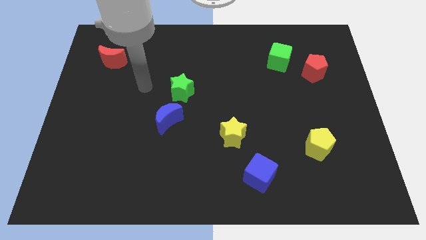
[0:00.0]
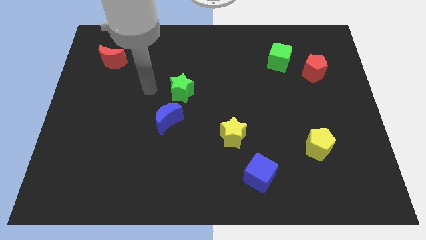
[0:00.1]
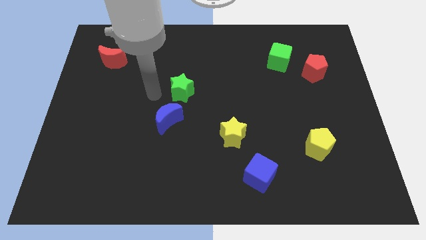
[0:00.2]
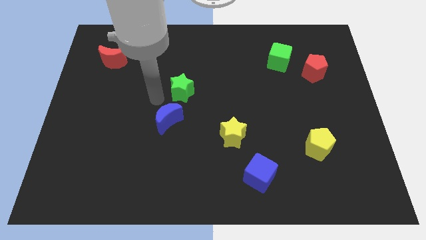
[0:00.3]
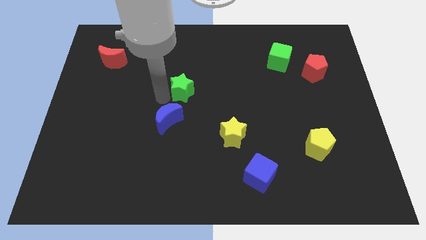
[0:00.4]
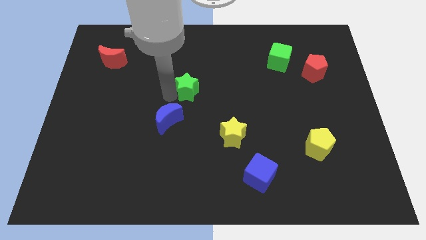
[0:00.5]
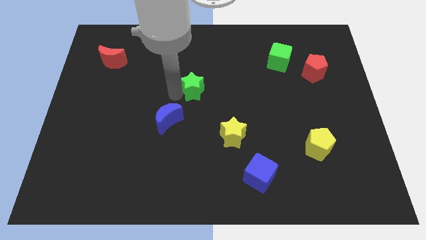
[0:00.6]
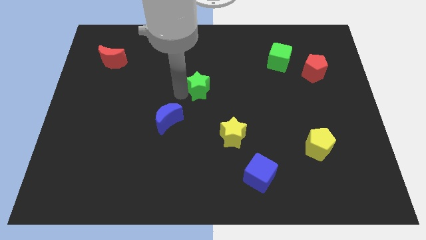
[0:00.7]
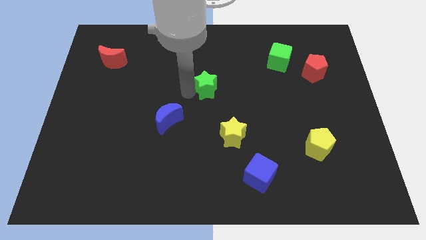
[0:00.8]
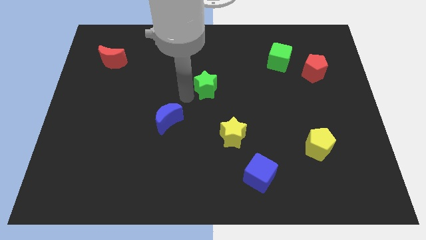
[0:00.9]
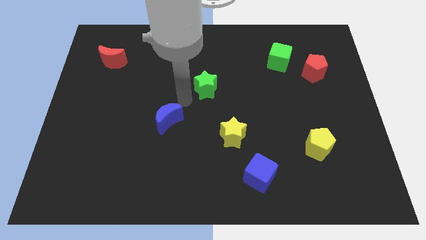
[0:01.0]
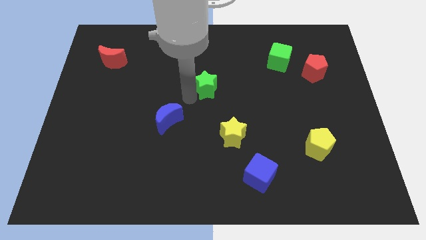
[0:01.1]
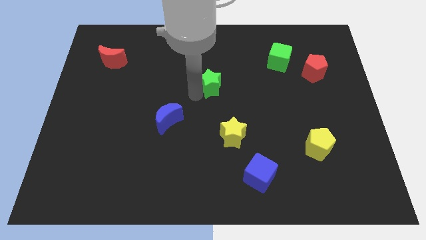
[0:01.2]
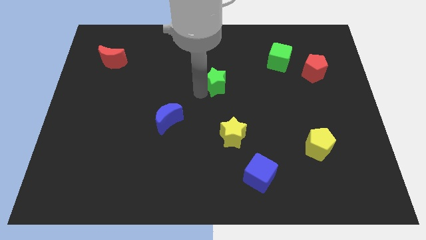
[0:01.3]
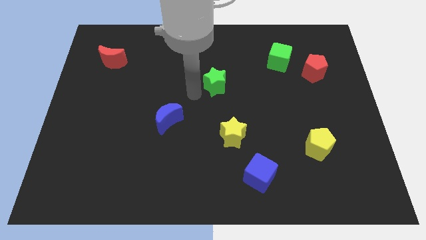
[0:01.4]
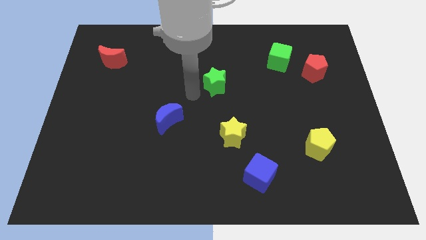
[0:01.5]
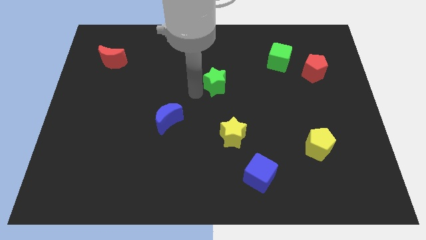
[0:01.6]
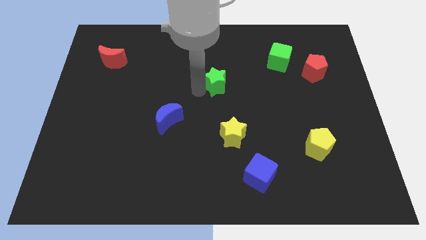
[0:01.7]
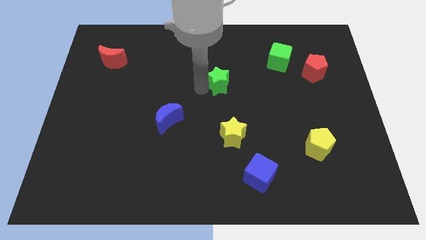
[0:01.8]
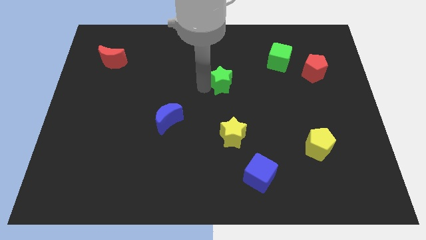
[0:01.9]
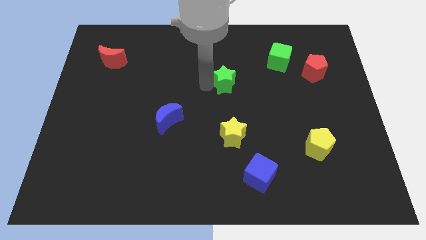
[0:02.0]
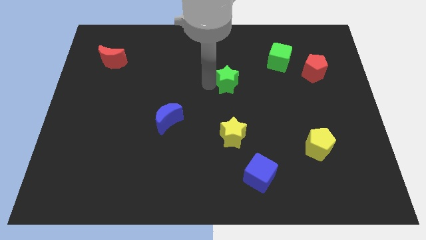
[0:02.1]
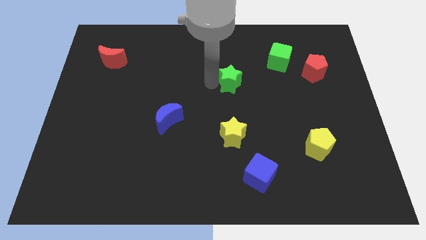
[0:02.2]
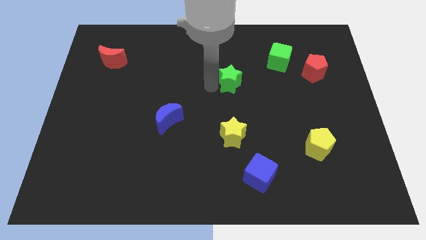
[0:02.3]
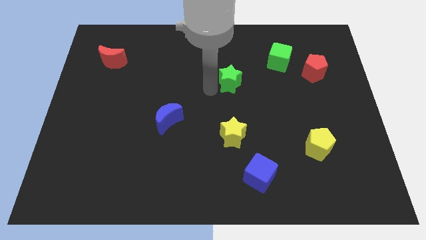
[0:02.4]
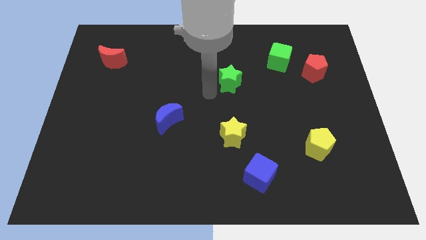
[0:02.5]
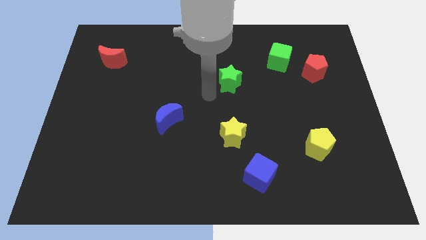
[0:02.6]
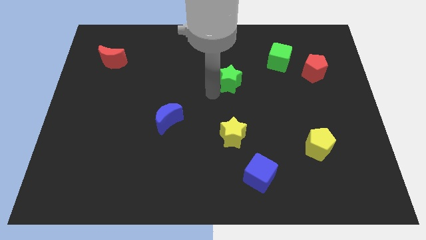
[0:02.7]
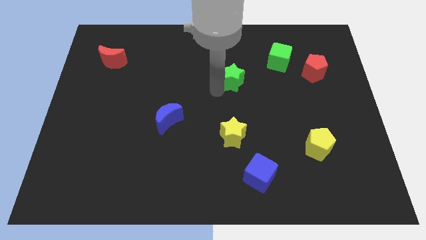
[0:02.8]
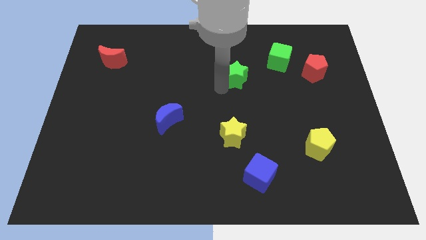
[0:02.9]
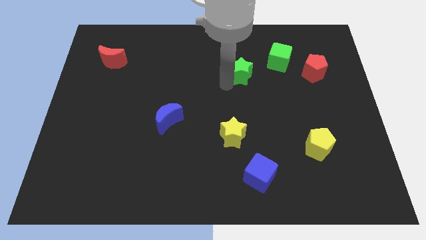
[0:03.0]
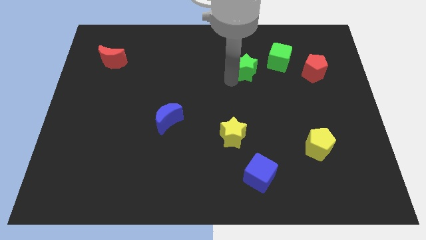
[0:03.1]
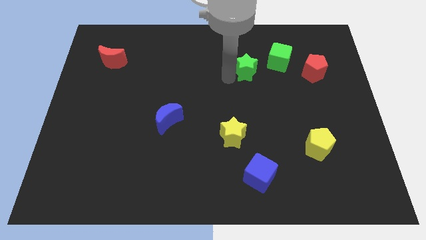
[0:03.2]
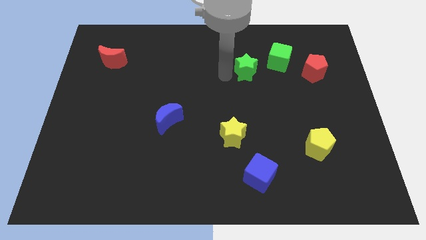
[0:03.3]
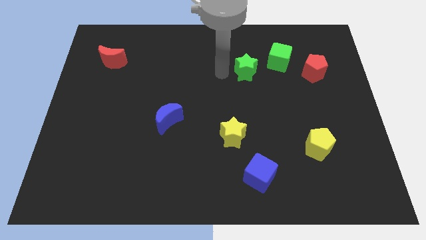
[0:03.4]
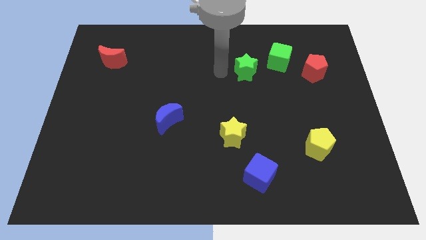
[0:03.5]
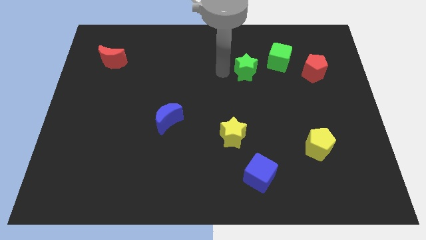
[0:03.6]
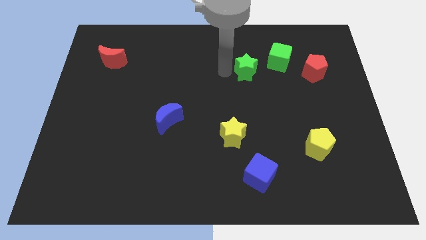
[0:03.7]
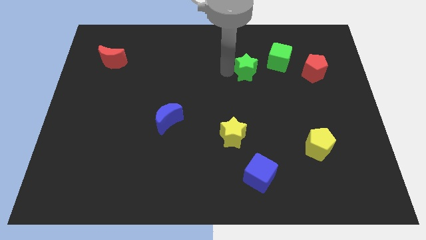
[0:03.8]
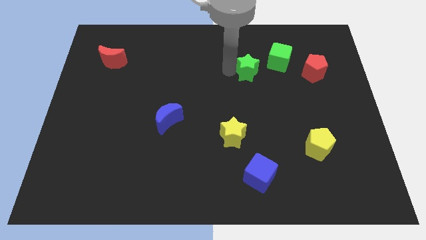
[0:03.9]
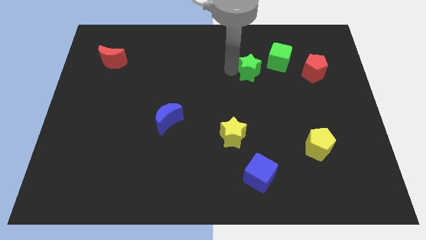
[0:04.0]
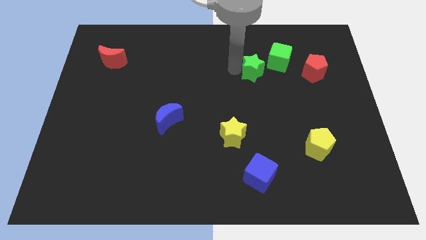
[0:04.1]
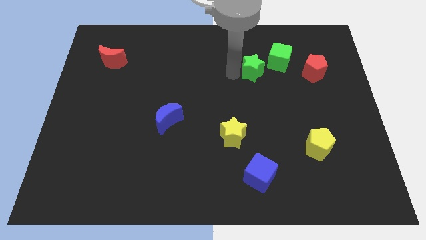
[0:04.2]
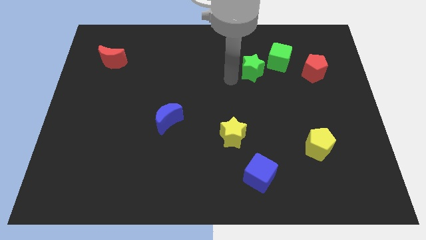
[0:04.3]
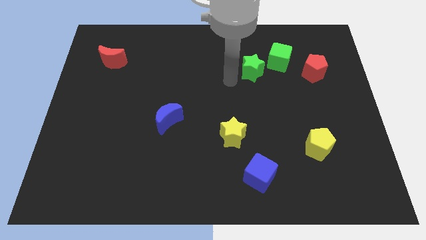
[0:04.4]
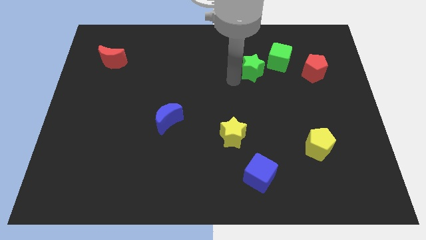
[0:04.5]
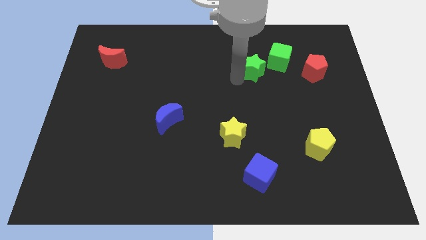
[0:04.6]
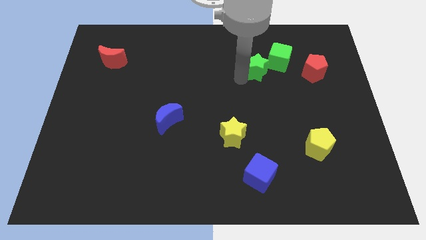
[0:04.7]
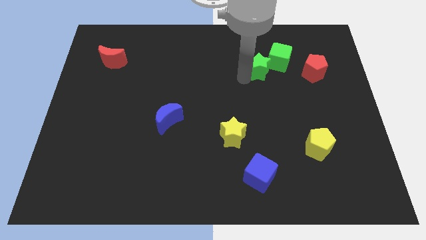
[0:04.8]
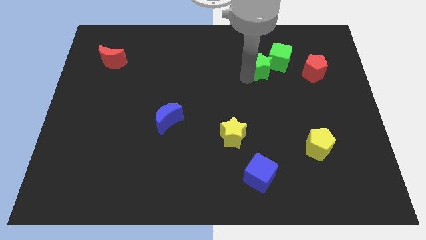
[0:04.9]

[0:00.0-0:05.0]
slide the green star close to the green cube

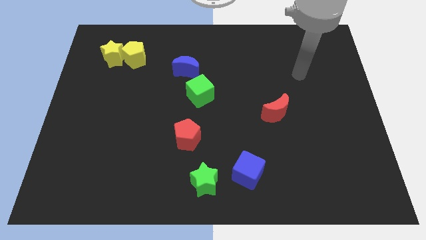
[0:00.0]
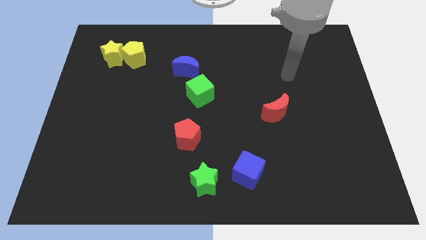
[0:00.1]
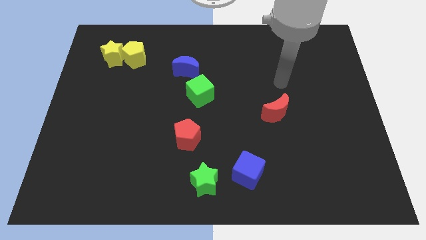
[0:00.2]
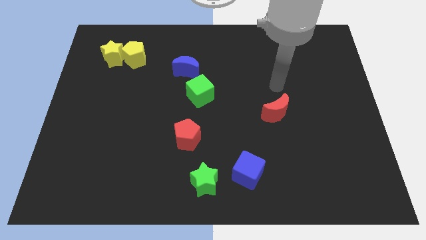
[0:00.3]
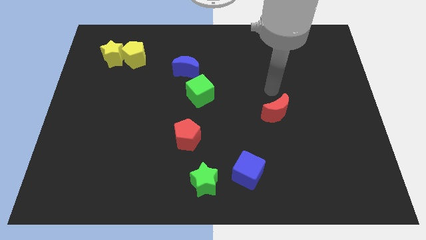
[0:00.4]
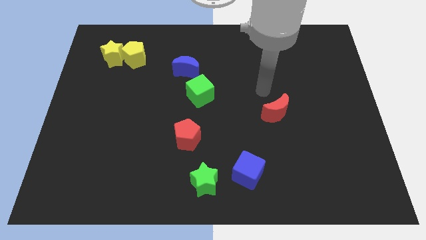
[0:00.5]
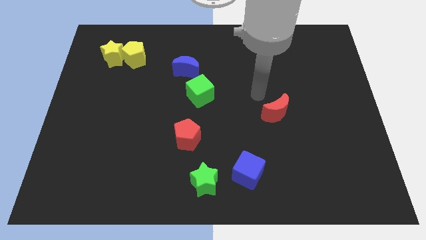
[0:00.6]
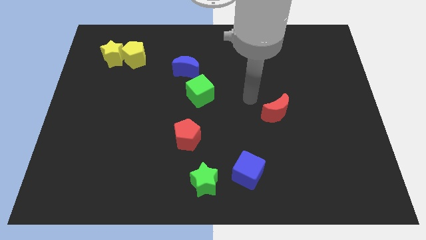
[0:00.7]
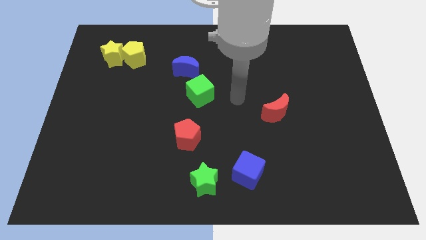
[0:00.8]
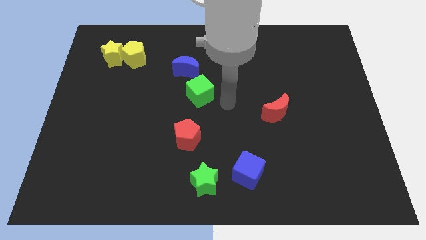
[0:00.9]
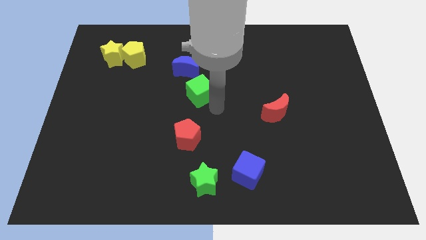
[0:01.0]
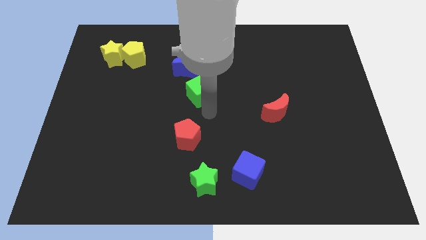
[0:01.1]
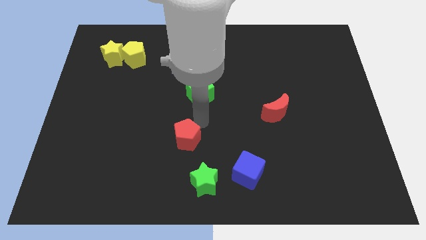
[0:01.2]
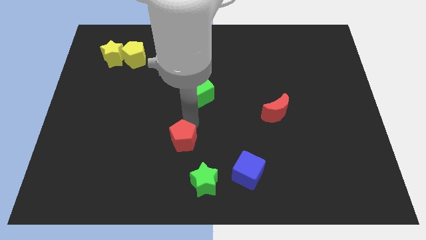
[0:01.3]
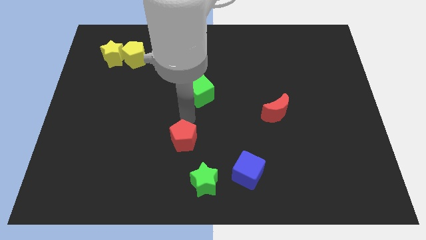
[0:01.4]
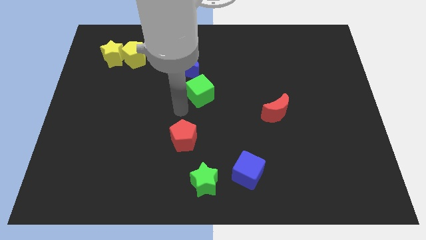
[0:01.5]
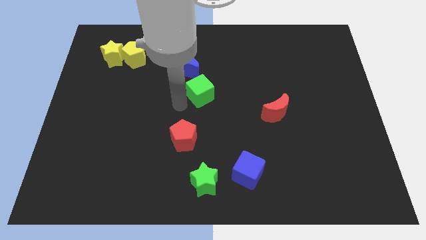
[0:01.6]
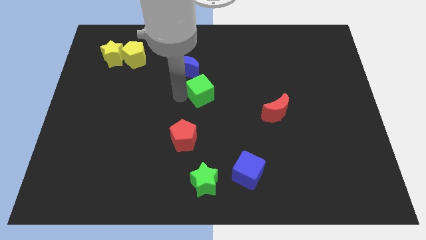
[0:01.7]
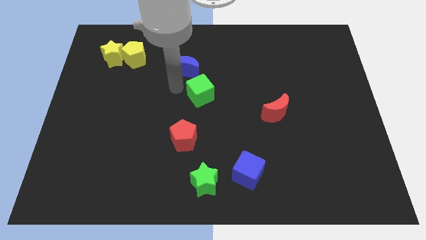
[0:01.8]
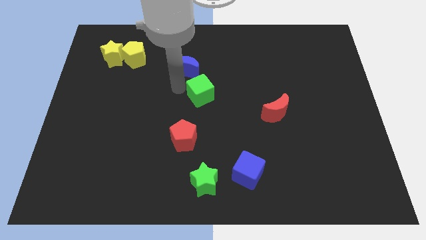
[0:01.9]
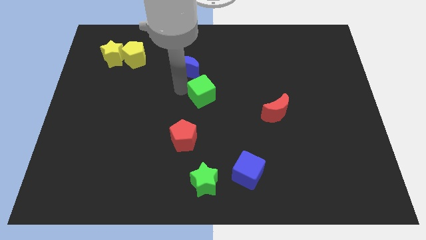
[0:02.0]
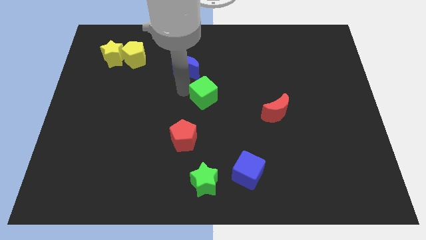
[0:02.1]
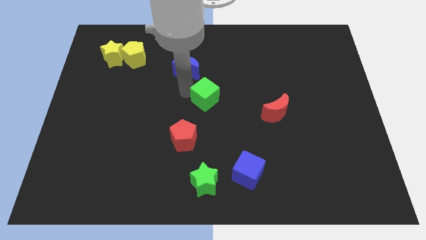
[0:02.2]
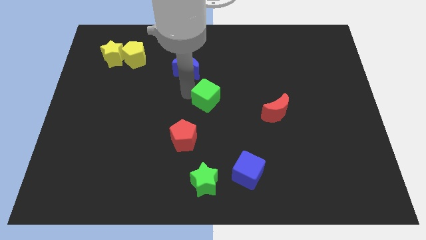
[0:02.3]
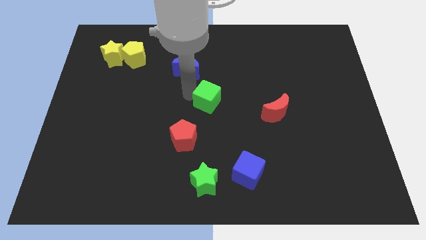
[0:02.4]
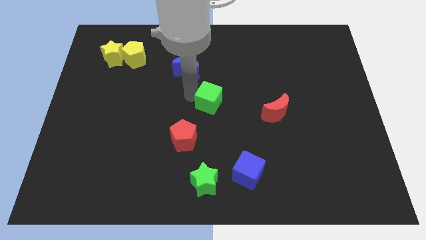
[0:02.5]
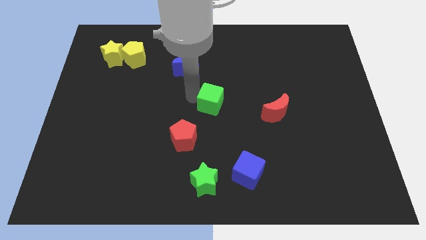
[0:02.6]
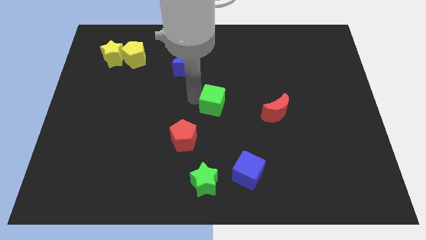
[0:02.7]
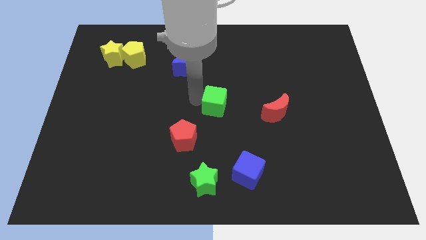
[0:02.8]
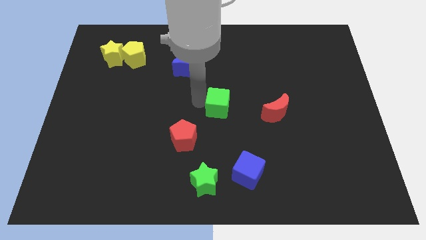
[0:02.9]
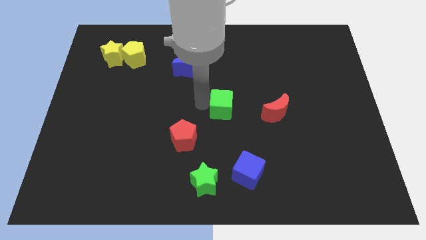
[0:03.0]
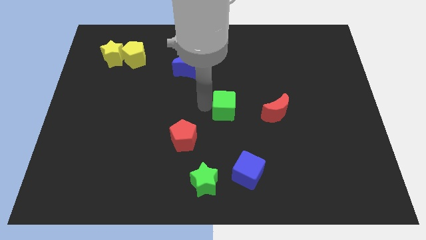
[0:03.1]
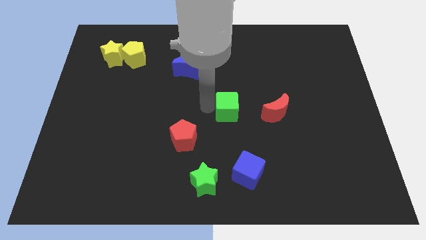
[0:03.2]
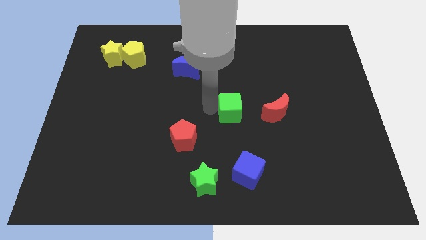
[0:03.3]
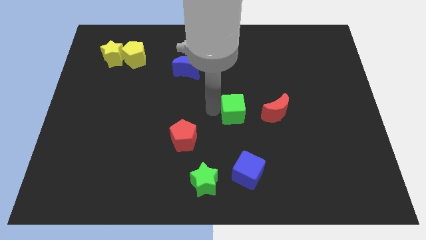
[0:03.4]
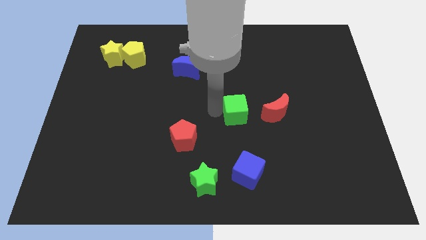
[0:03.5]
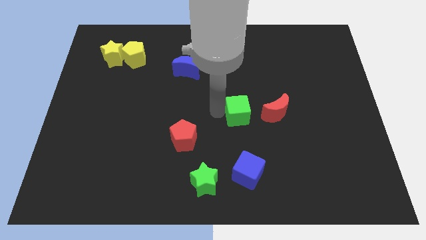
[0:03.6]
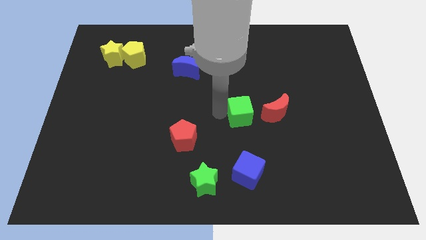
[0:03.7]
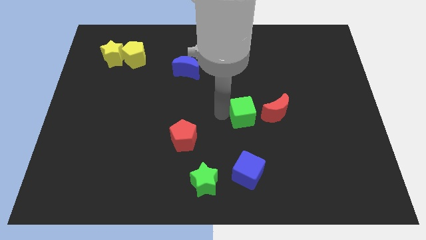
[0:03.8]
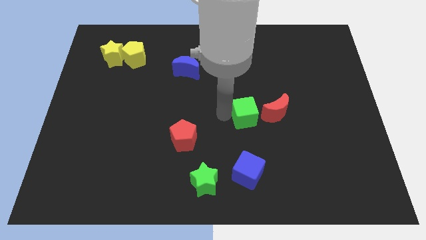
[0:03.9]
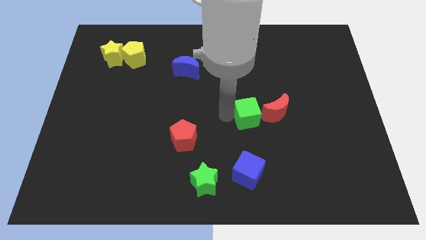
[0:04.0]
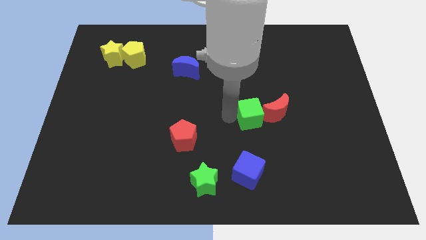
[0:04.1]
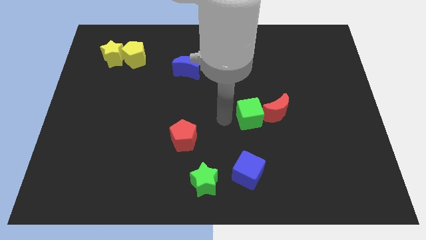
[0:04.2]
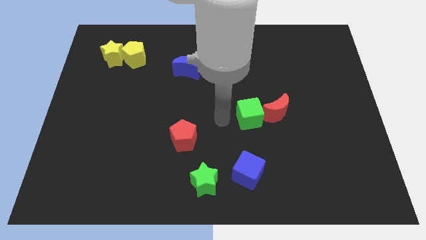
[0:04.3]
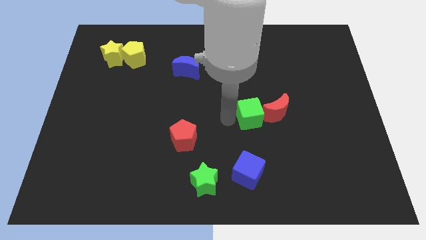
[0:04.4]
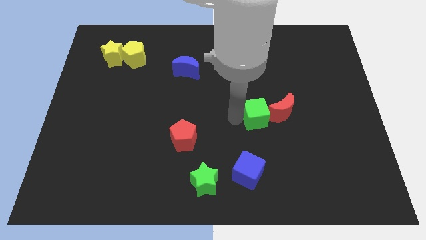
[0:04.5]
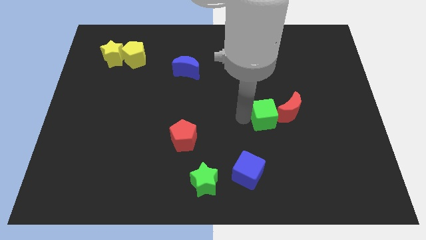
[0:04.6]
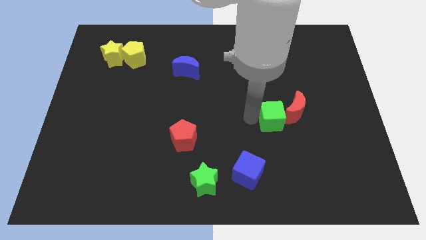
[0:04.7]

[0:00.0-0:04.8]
slide the green cube close to the red moon
